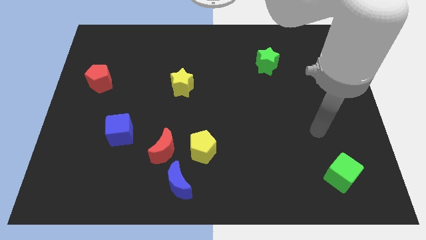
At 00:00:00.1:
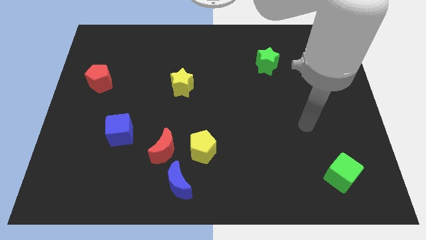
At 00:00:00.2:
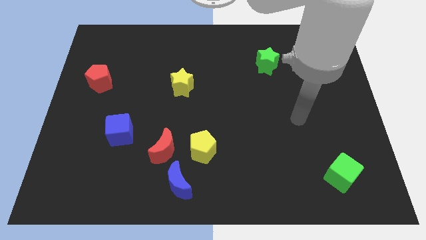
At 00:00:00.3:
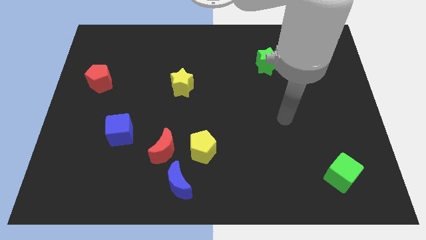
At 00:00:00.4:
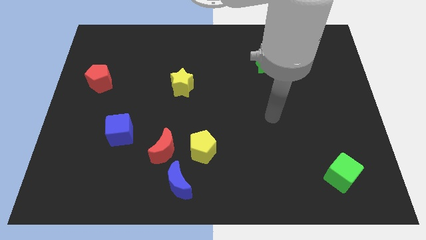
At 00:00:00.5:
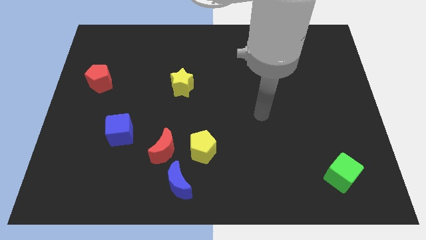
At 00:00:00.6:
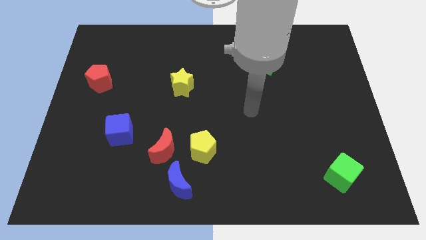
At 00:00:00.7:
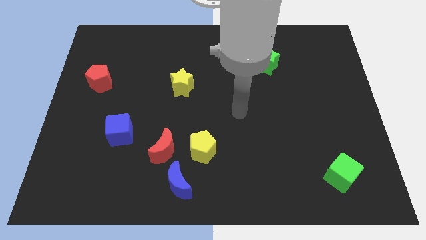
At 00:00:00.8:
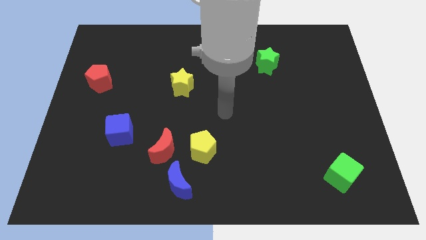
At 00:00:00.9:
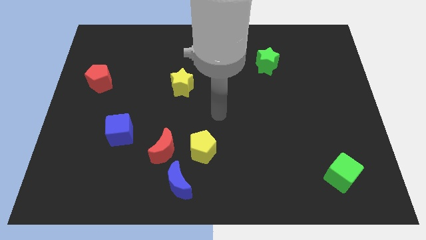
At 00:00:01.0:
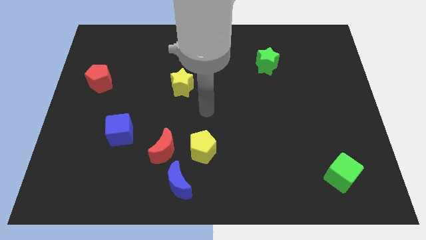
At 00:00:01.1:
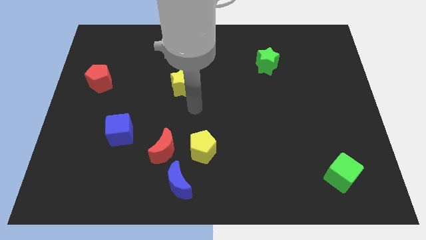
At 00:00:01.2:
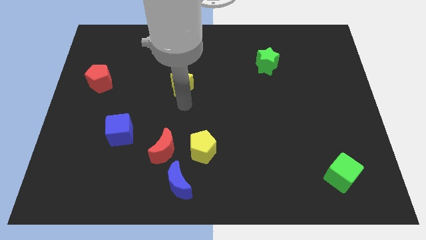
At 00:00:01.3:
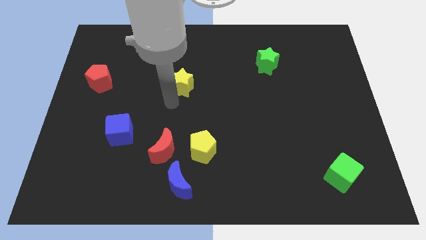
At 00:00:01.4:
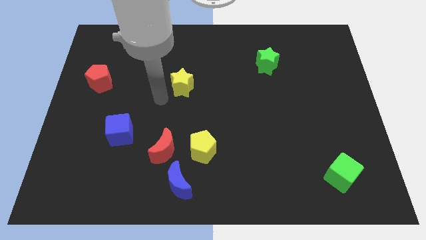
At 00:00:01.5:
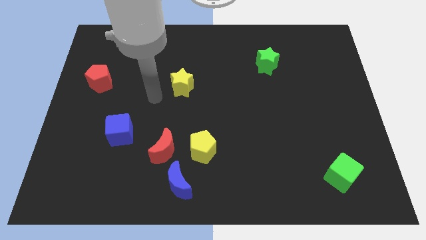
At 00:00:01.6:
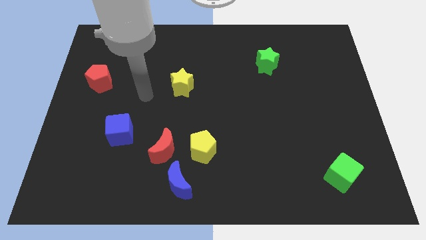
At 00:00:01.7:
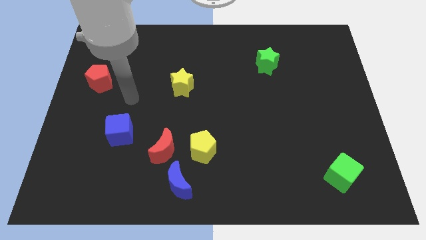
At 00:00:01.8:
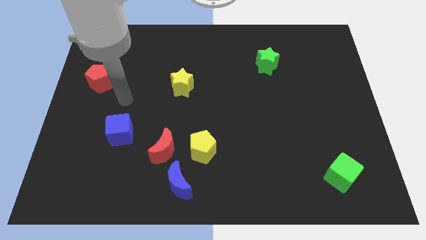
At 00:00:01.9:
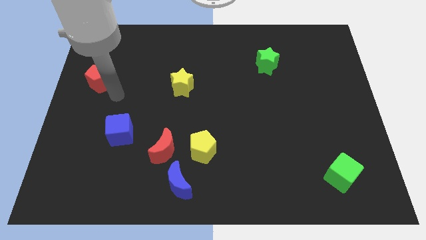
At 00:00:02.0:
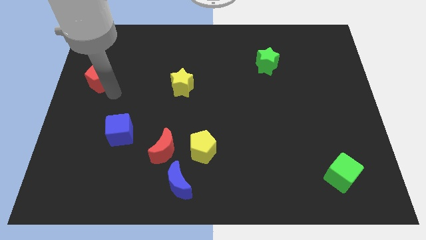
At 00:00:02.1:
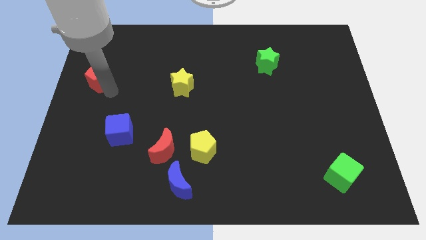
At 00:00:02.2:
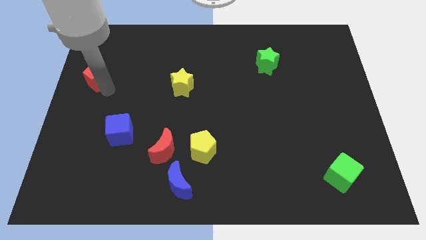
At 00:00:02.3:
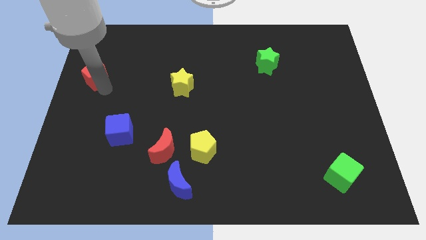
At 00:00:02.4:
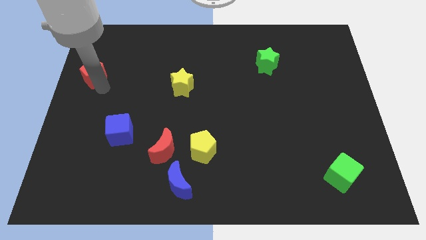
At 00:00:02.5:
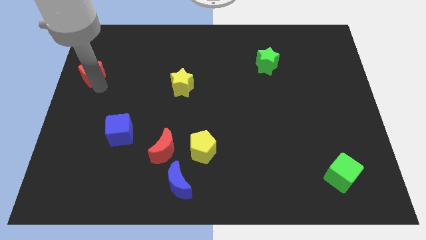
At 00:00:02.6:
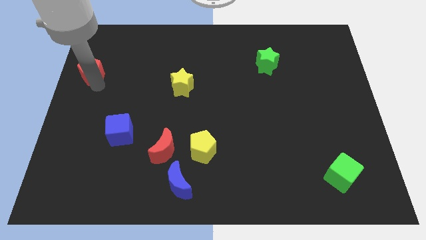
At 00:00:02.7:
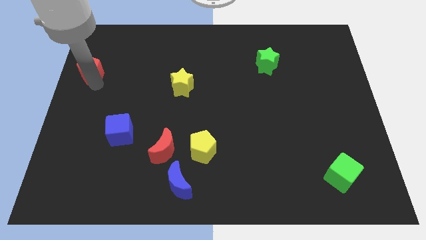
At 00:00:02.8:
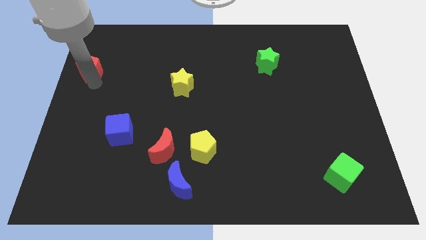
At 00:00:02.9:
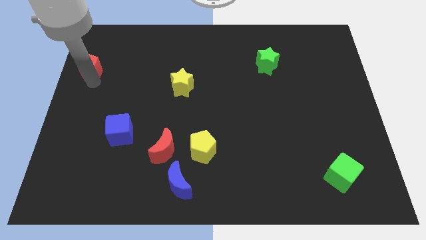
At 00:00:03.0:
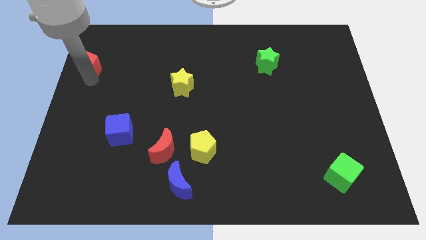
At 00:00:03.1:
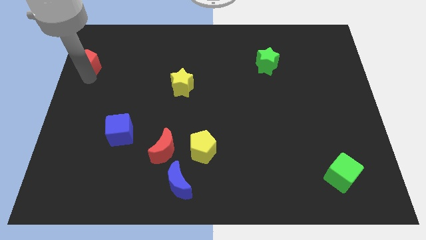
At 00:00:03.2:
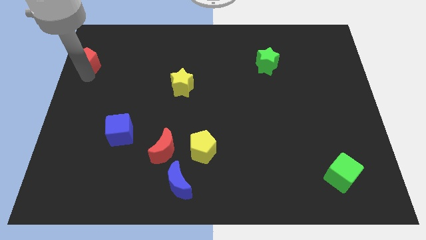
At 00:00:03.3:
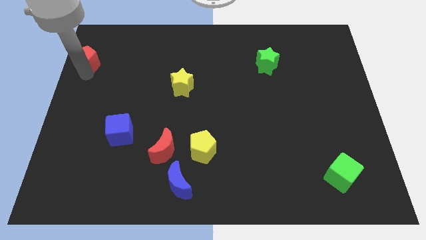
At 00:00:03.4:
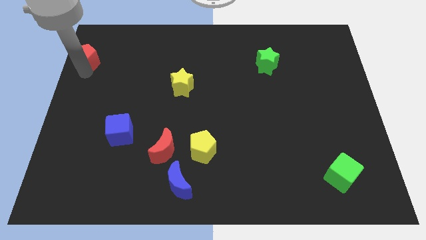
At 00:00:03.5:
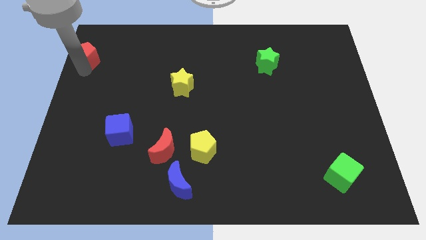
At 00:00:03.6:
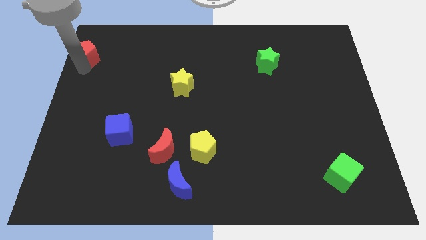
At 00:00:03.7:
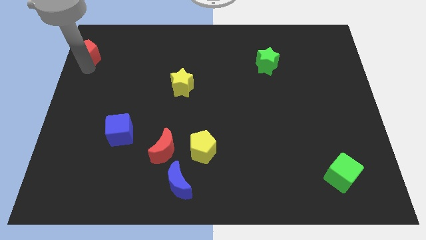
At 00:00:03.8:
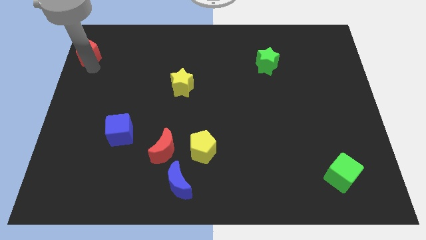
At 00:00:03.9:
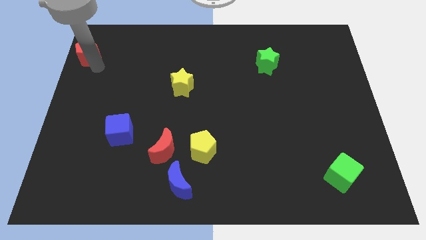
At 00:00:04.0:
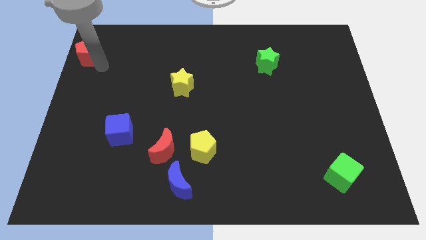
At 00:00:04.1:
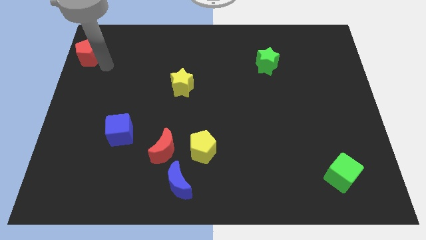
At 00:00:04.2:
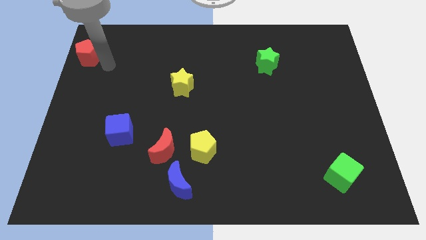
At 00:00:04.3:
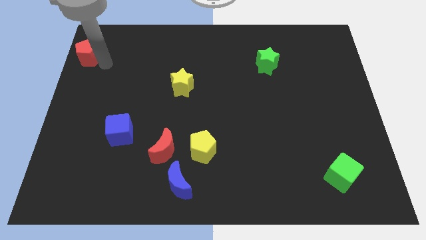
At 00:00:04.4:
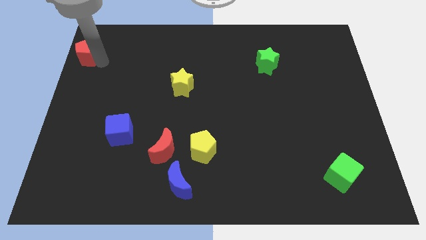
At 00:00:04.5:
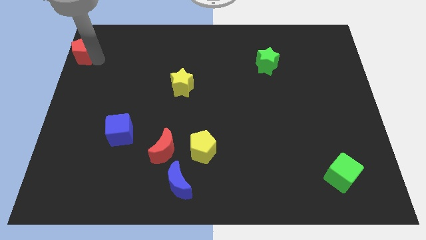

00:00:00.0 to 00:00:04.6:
slide the red pentagon to the top left corner

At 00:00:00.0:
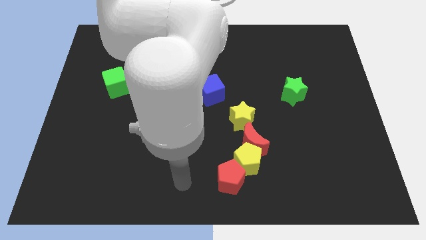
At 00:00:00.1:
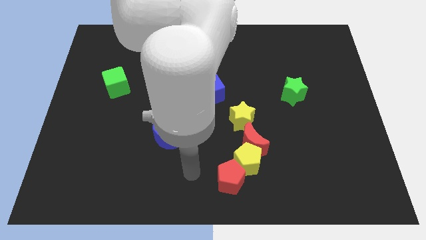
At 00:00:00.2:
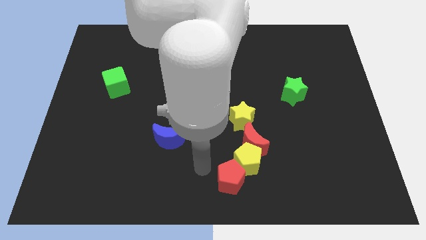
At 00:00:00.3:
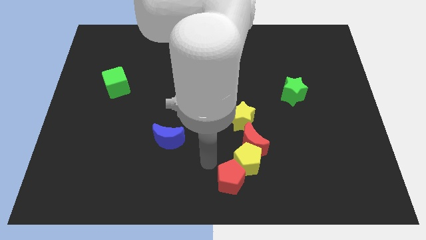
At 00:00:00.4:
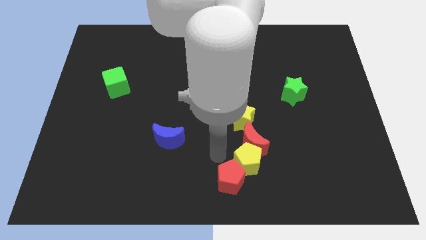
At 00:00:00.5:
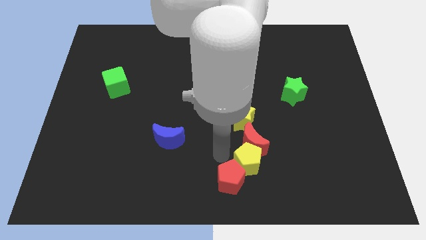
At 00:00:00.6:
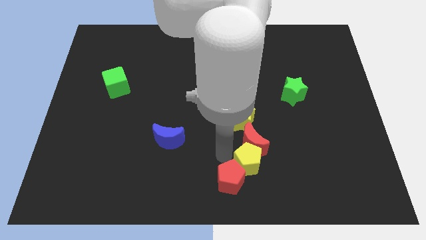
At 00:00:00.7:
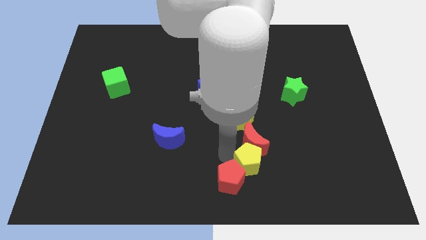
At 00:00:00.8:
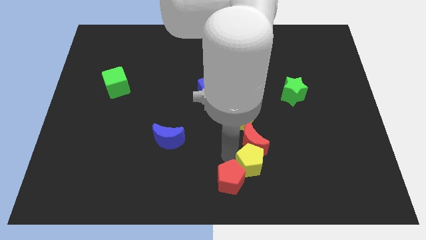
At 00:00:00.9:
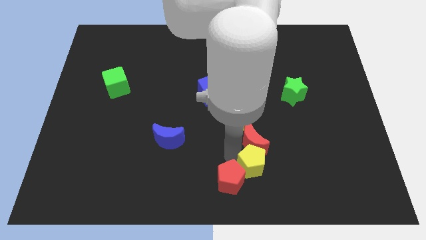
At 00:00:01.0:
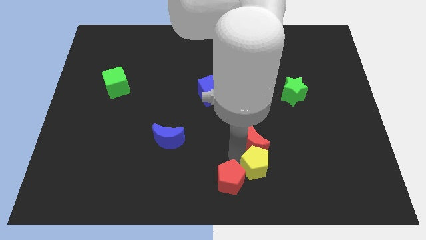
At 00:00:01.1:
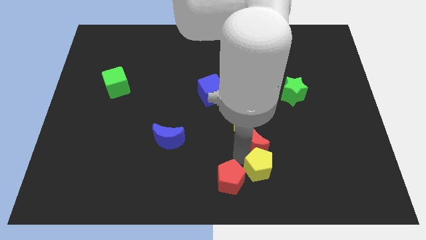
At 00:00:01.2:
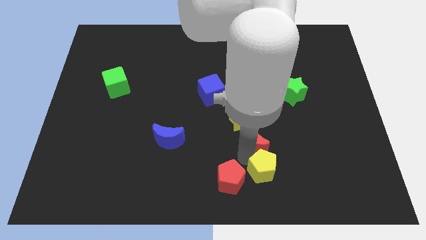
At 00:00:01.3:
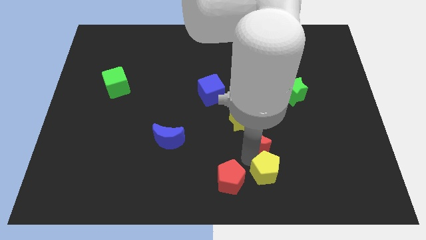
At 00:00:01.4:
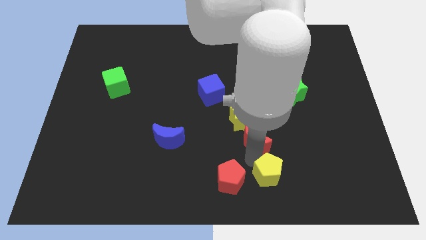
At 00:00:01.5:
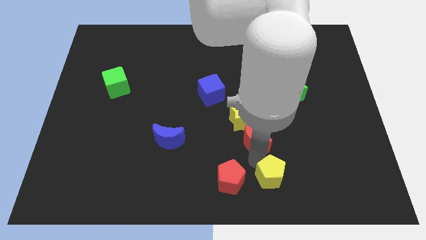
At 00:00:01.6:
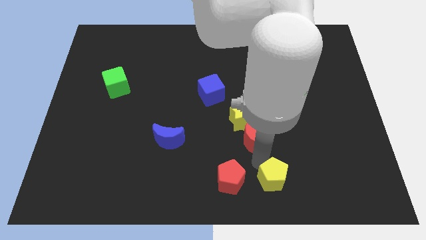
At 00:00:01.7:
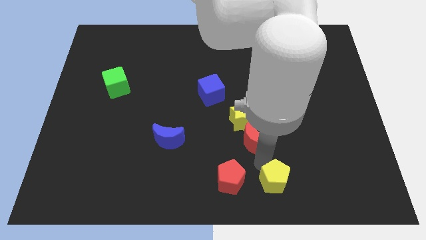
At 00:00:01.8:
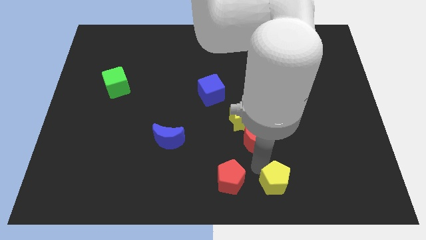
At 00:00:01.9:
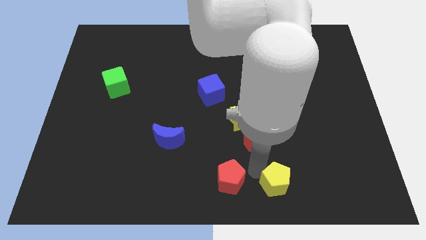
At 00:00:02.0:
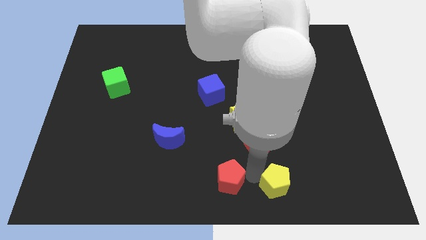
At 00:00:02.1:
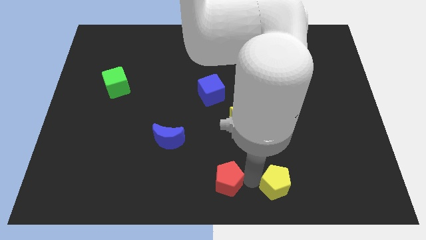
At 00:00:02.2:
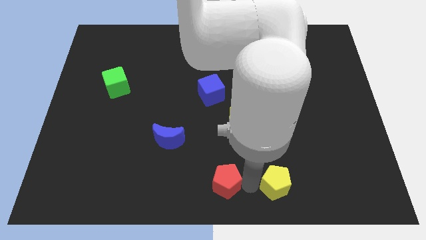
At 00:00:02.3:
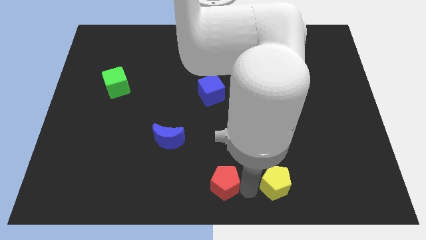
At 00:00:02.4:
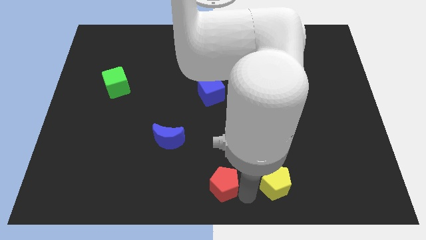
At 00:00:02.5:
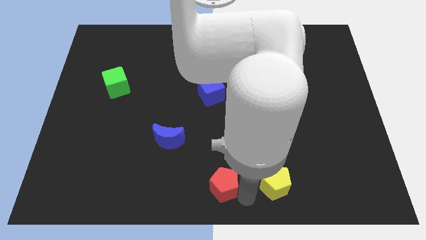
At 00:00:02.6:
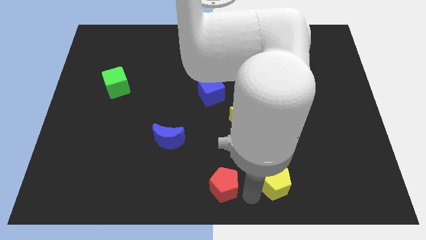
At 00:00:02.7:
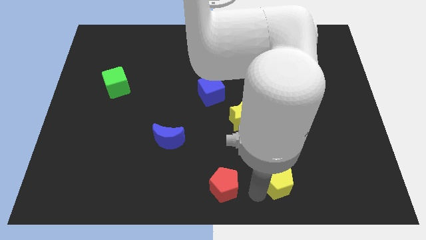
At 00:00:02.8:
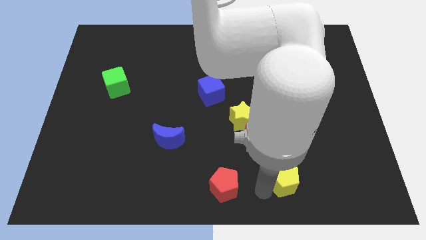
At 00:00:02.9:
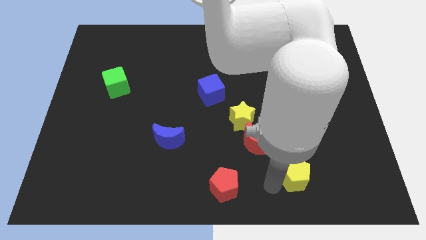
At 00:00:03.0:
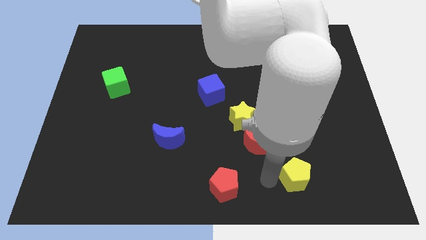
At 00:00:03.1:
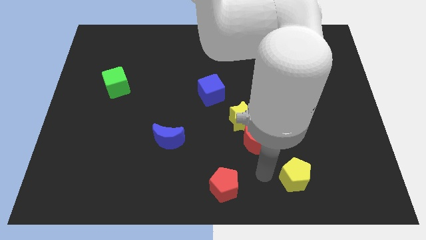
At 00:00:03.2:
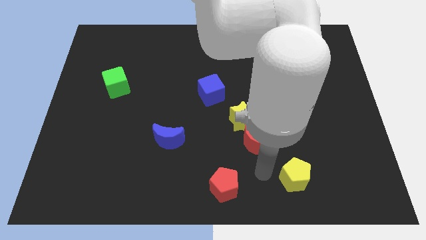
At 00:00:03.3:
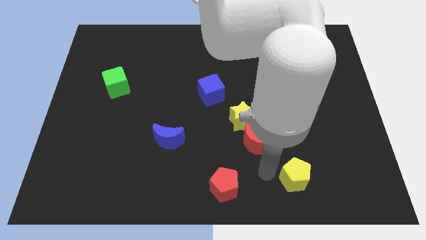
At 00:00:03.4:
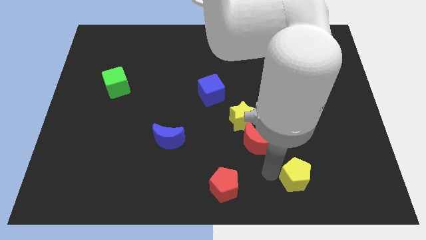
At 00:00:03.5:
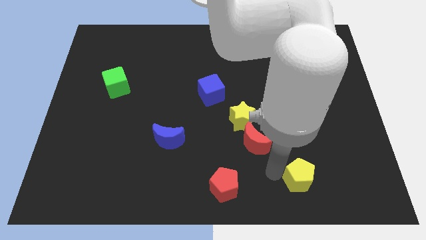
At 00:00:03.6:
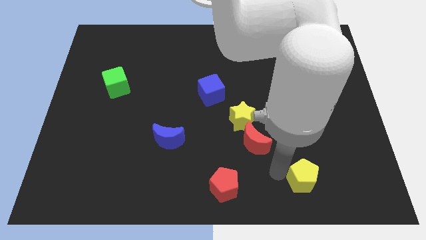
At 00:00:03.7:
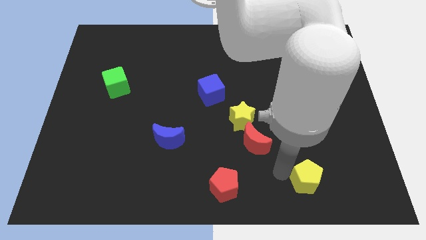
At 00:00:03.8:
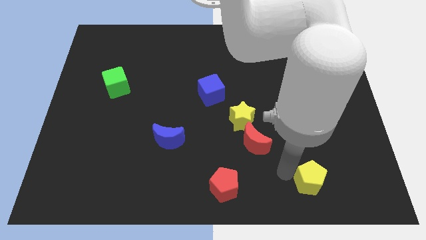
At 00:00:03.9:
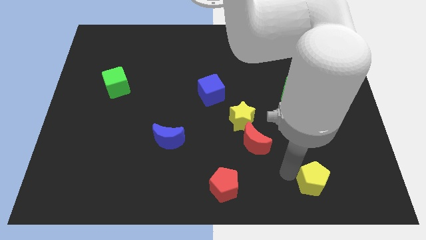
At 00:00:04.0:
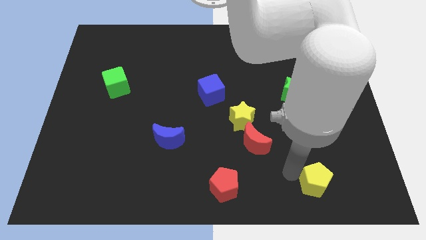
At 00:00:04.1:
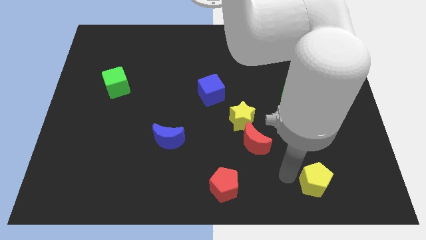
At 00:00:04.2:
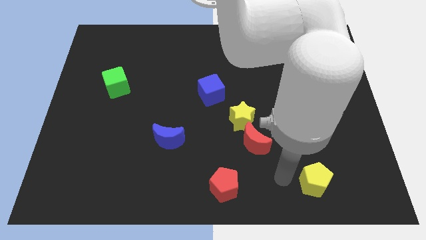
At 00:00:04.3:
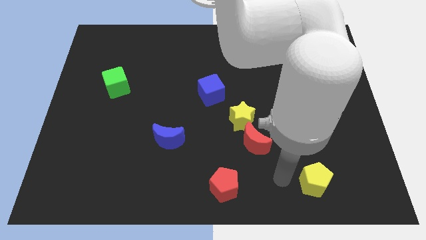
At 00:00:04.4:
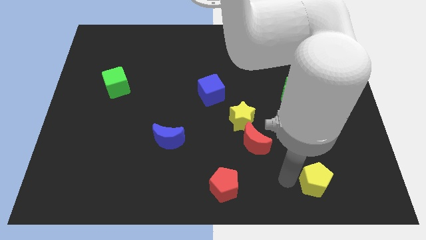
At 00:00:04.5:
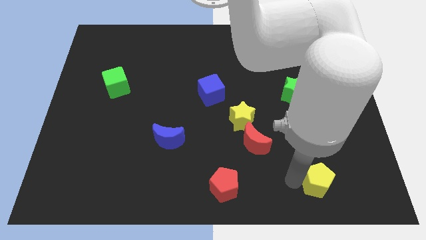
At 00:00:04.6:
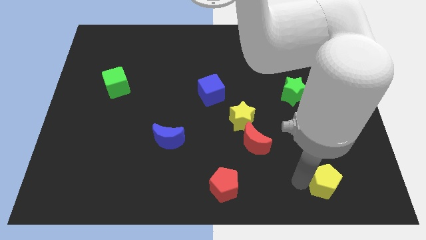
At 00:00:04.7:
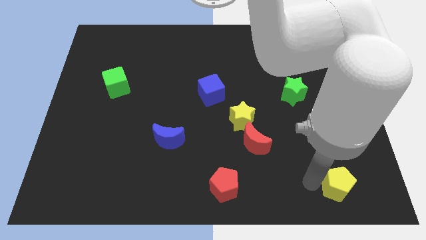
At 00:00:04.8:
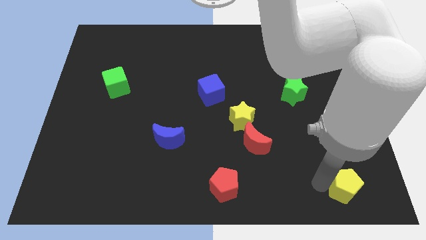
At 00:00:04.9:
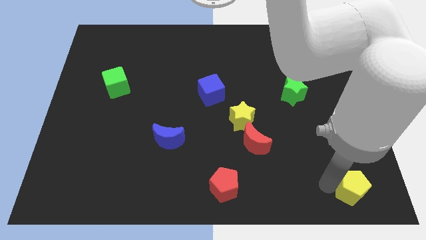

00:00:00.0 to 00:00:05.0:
slide the yellow pentagon to the bottom right
